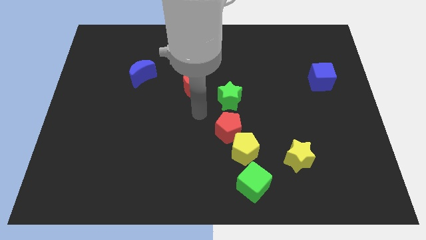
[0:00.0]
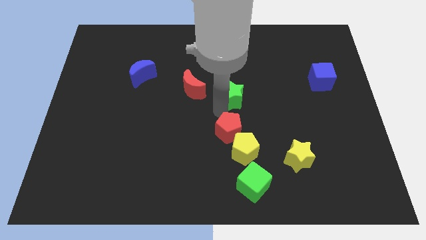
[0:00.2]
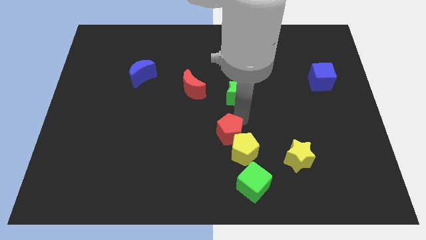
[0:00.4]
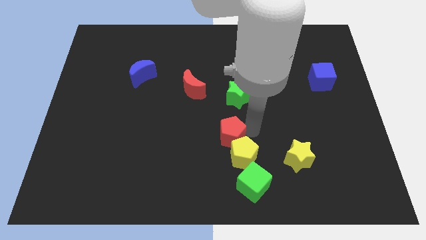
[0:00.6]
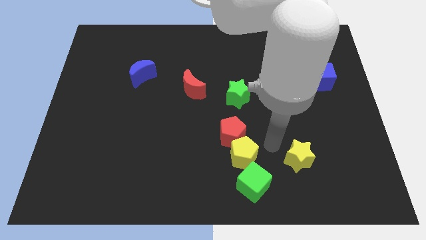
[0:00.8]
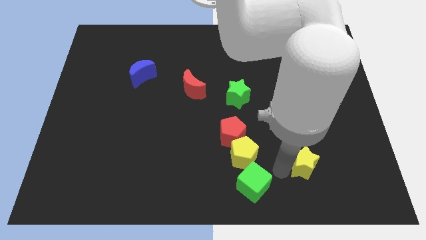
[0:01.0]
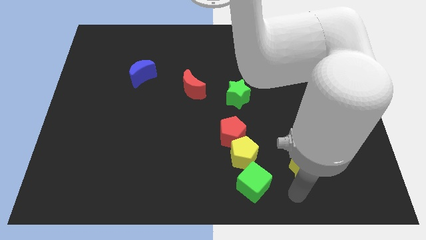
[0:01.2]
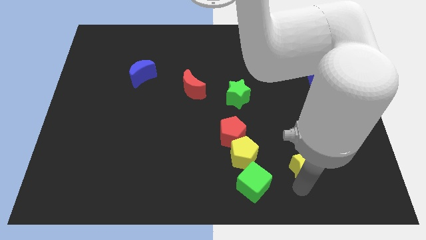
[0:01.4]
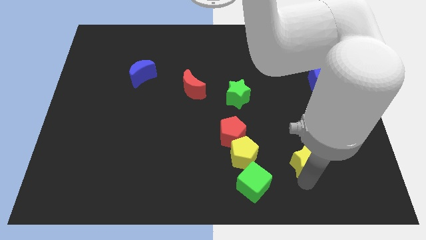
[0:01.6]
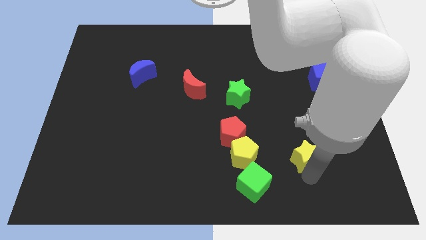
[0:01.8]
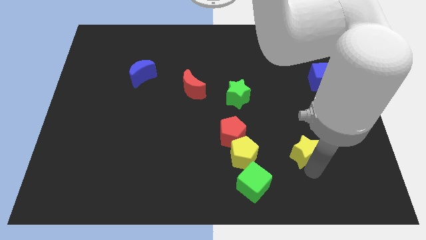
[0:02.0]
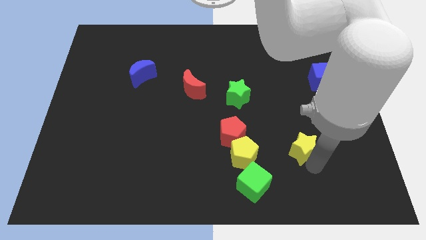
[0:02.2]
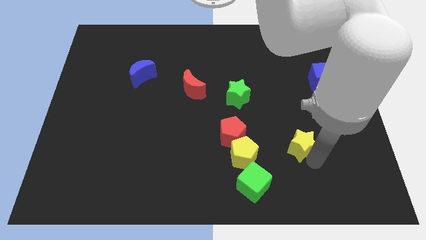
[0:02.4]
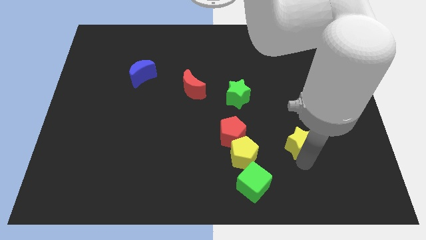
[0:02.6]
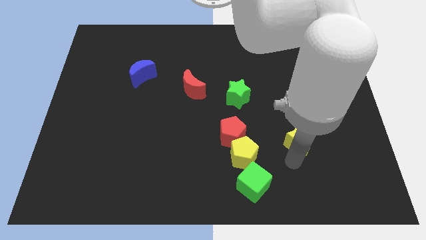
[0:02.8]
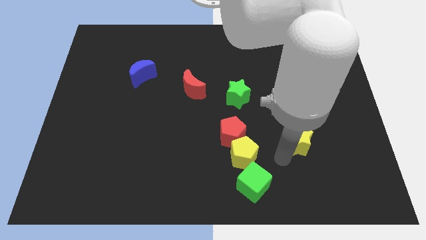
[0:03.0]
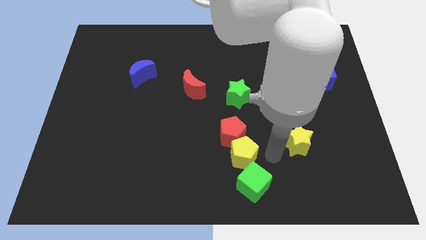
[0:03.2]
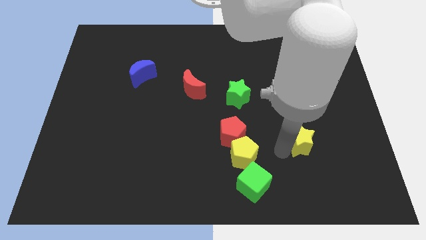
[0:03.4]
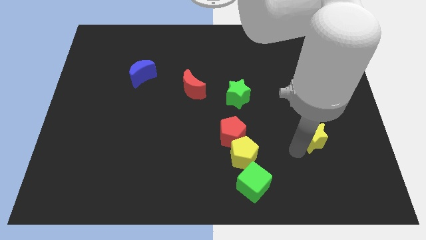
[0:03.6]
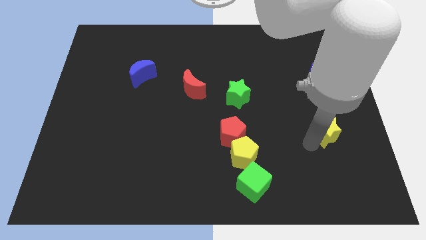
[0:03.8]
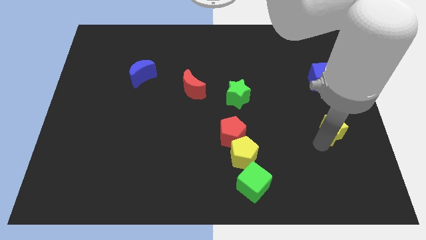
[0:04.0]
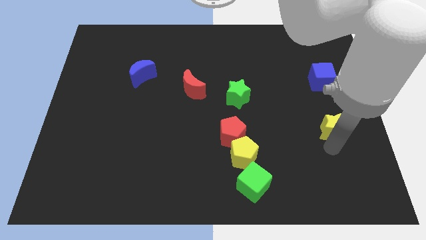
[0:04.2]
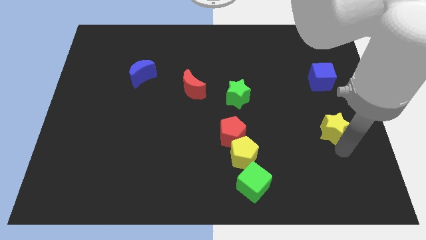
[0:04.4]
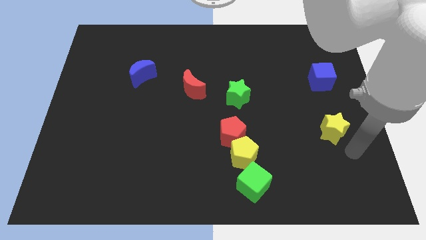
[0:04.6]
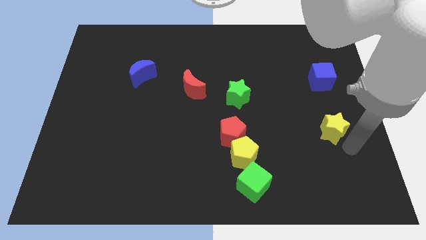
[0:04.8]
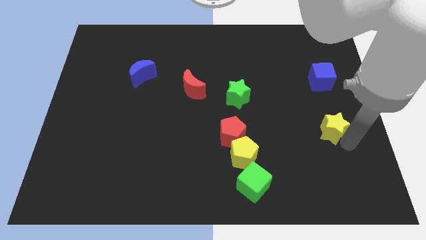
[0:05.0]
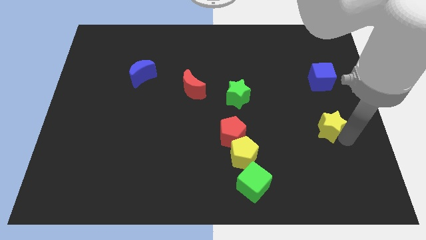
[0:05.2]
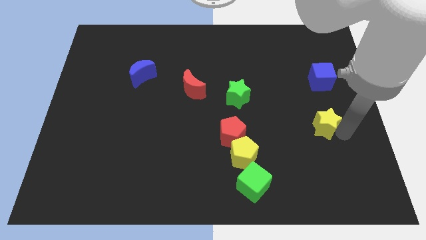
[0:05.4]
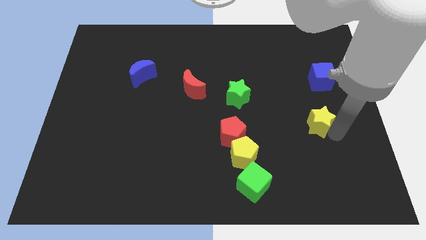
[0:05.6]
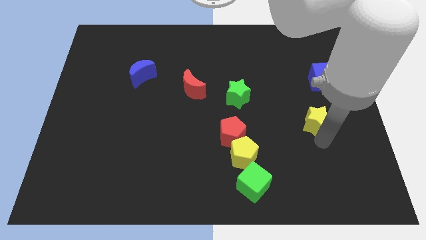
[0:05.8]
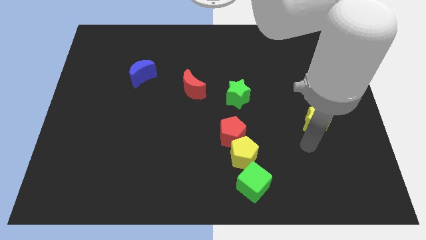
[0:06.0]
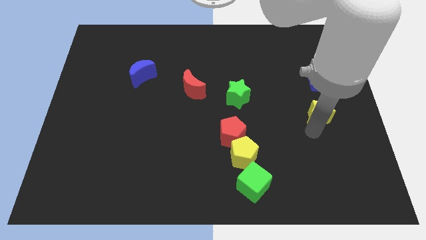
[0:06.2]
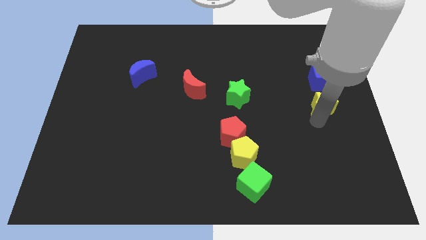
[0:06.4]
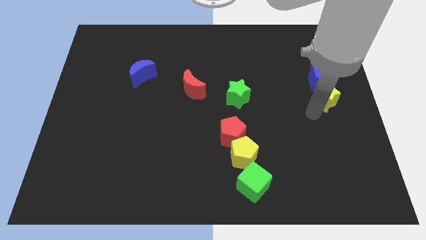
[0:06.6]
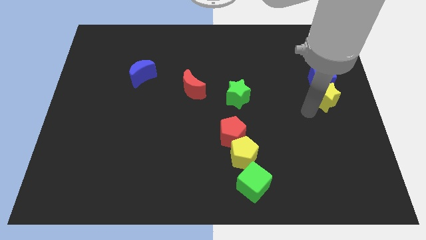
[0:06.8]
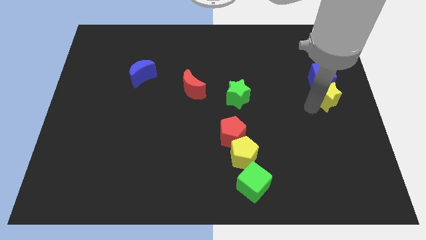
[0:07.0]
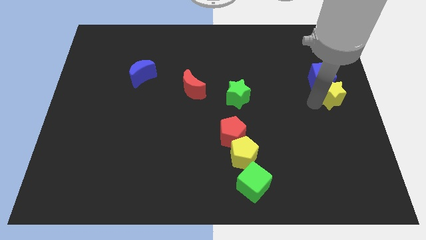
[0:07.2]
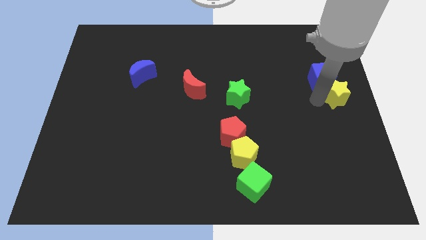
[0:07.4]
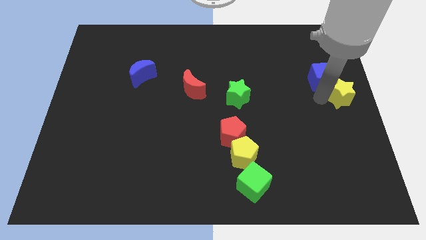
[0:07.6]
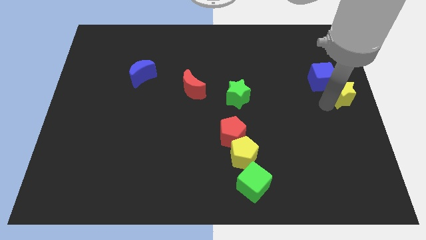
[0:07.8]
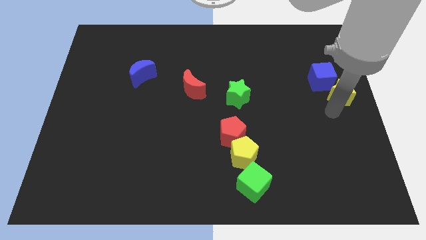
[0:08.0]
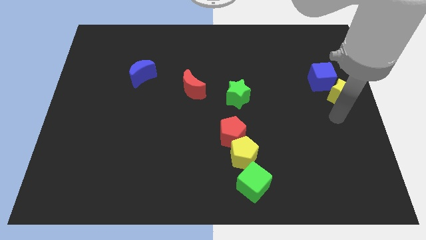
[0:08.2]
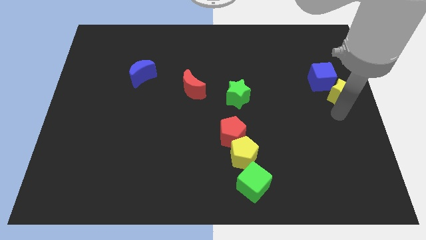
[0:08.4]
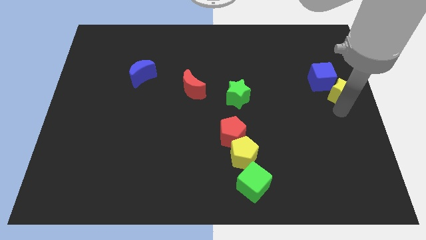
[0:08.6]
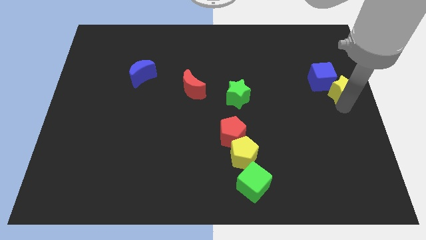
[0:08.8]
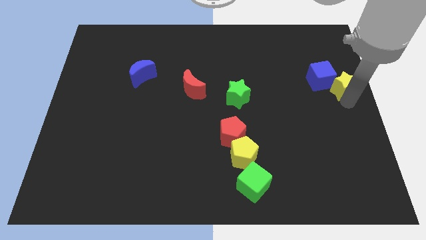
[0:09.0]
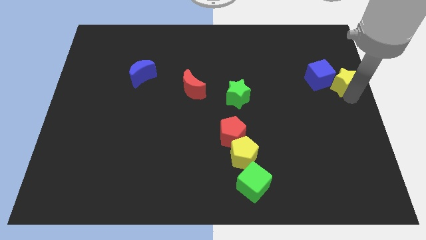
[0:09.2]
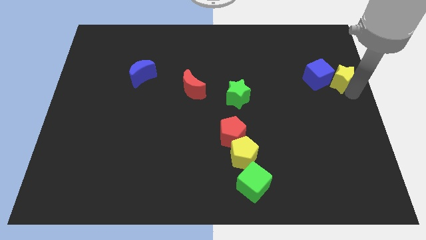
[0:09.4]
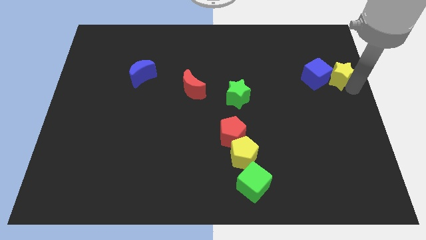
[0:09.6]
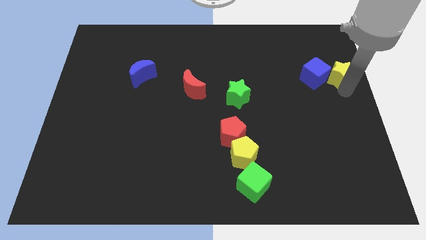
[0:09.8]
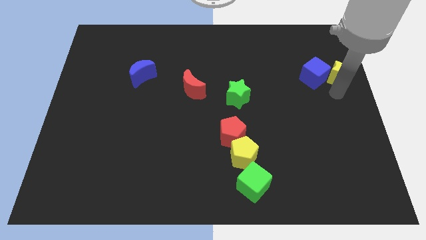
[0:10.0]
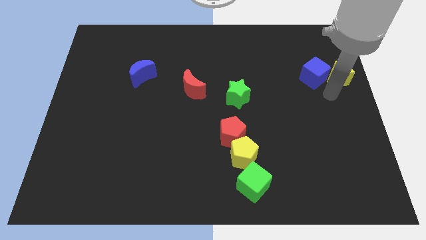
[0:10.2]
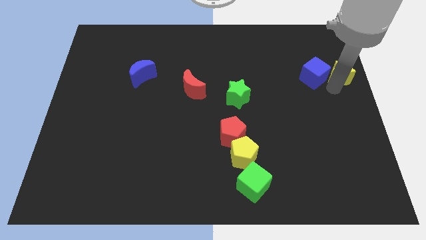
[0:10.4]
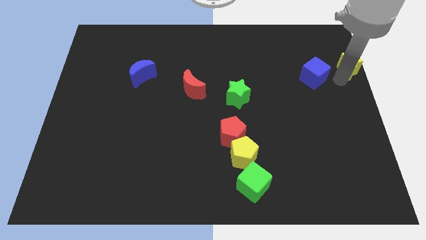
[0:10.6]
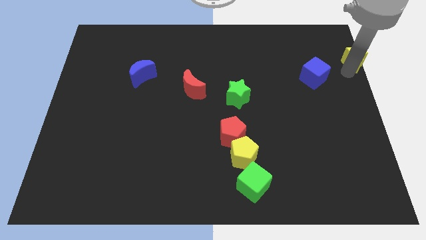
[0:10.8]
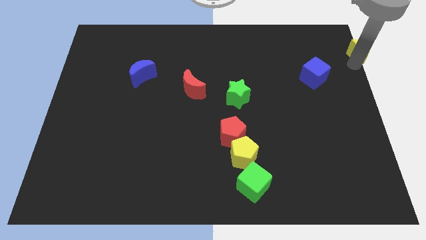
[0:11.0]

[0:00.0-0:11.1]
slide the yellow star to the upper right corner

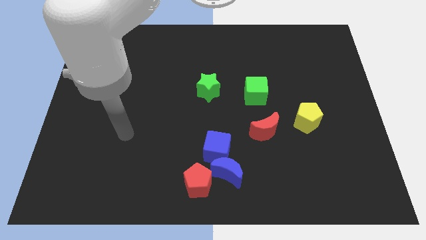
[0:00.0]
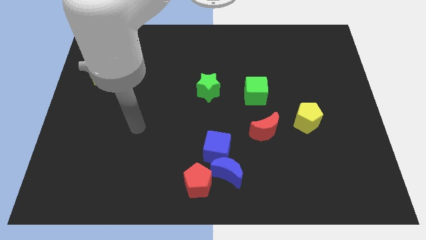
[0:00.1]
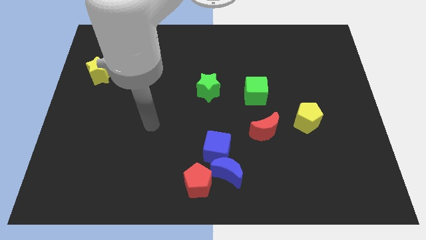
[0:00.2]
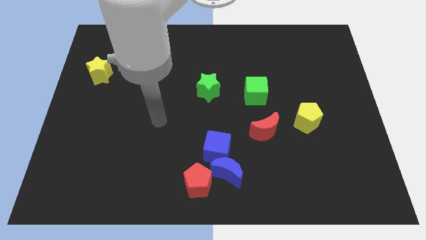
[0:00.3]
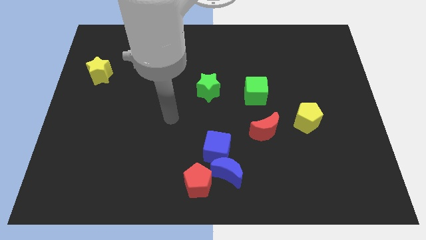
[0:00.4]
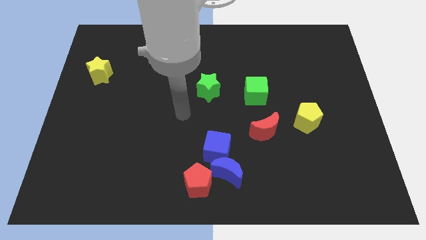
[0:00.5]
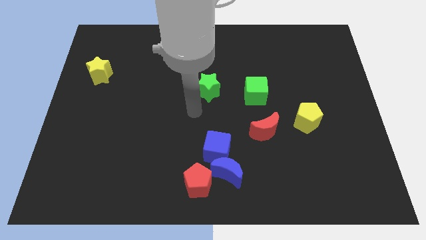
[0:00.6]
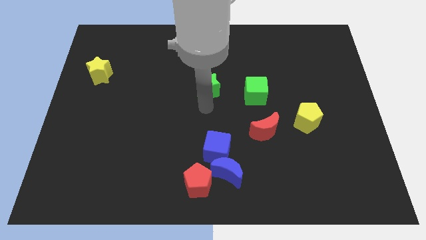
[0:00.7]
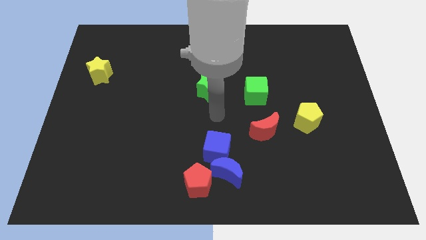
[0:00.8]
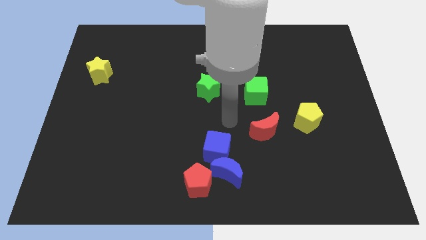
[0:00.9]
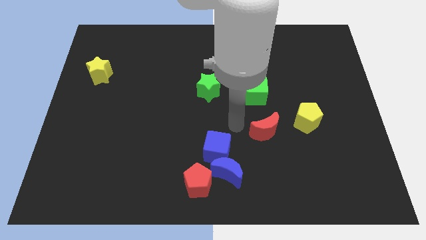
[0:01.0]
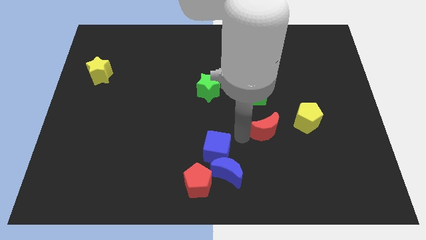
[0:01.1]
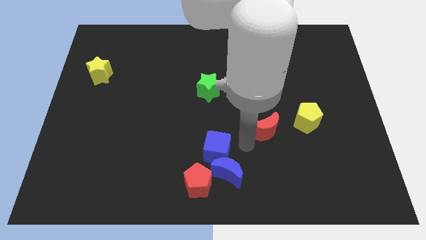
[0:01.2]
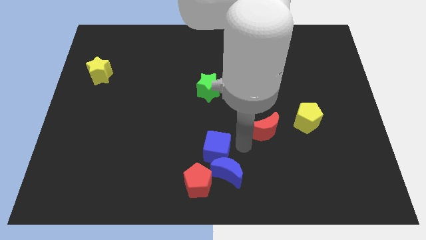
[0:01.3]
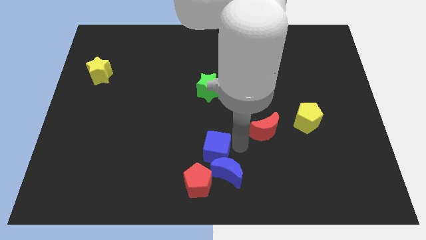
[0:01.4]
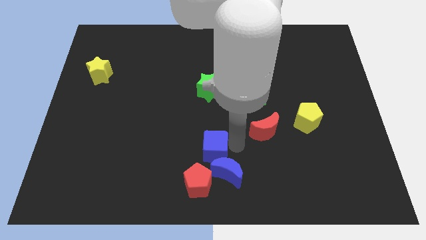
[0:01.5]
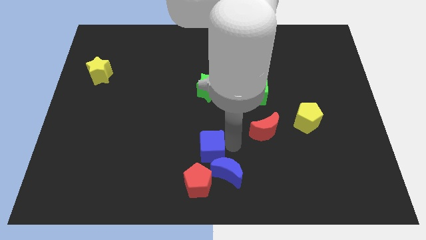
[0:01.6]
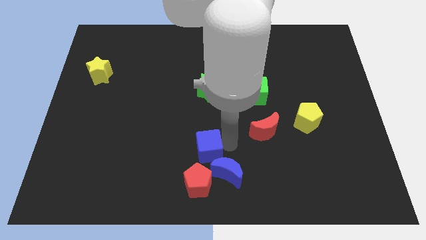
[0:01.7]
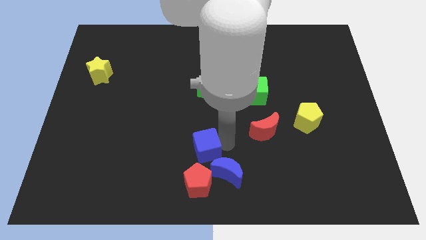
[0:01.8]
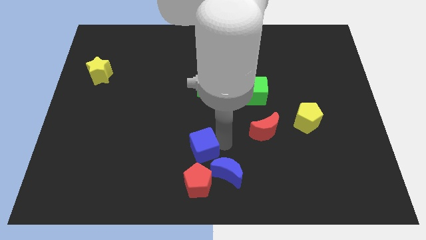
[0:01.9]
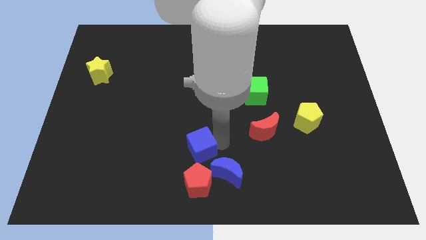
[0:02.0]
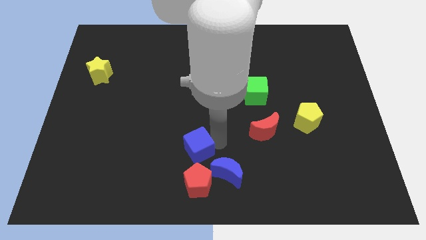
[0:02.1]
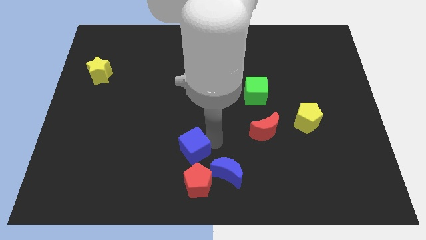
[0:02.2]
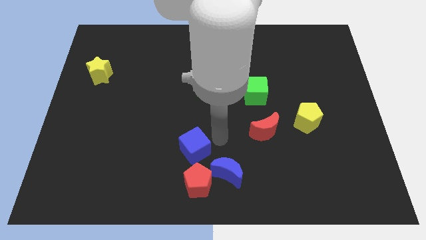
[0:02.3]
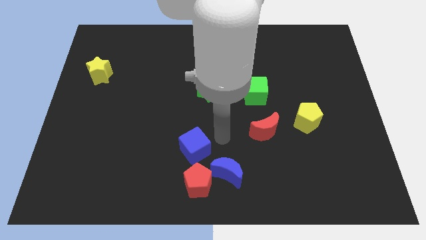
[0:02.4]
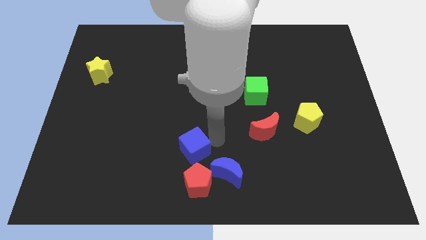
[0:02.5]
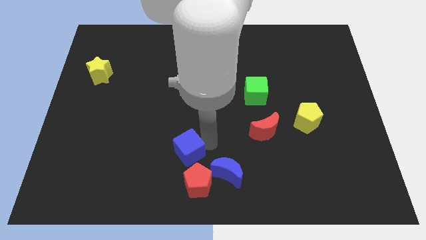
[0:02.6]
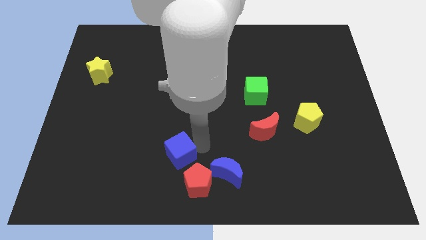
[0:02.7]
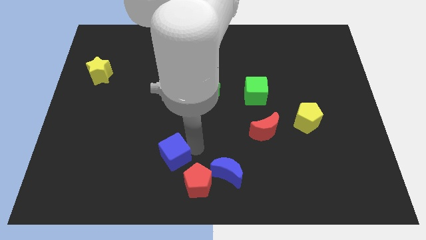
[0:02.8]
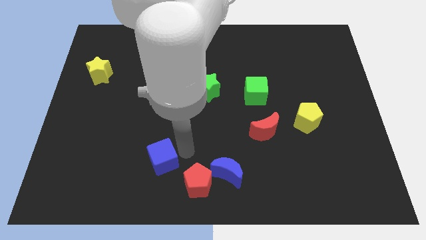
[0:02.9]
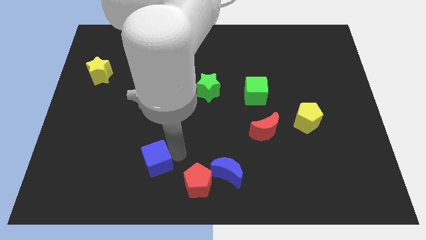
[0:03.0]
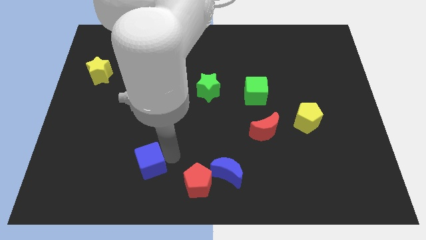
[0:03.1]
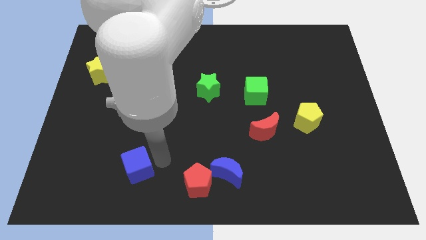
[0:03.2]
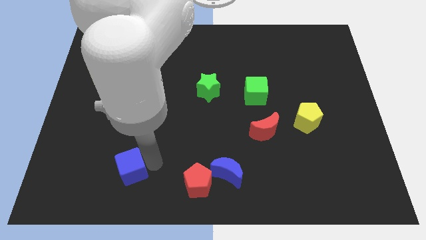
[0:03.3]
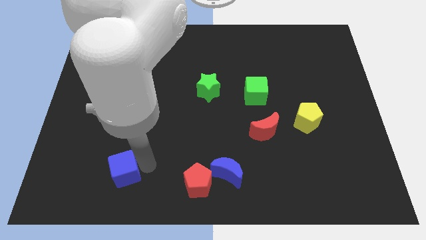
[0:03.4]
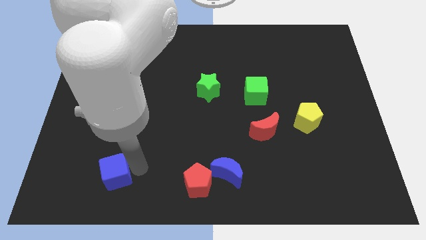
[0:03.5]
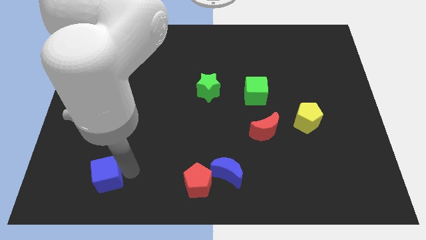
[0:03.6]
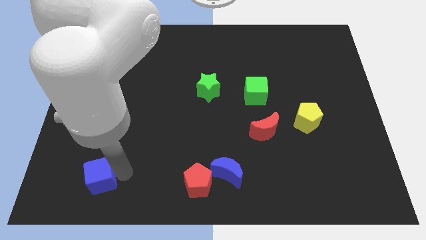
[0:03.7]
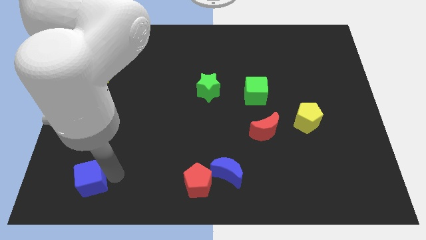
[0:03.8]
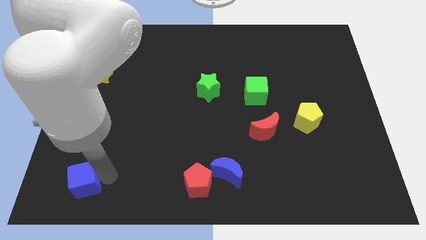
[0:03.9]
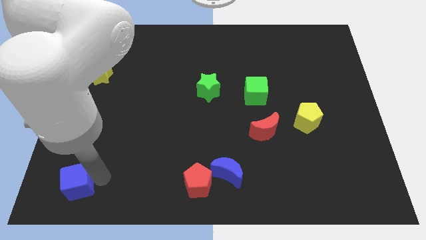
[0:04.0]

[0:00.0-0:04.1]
slide the blue cube to the bottom left of the board
